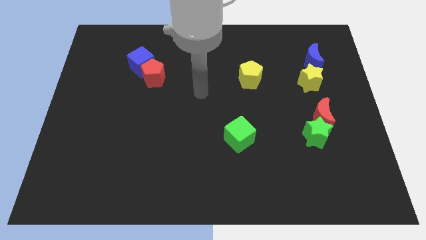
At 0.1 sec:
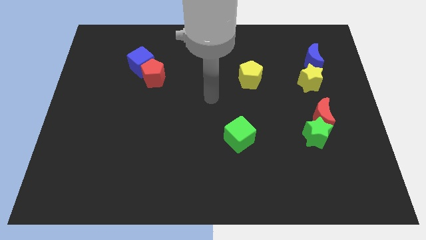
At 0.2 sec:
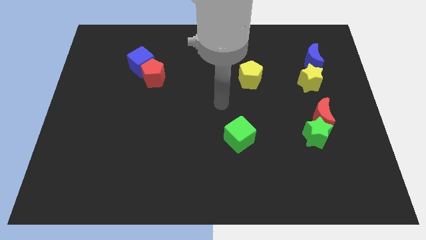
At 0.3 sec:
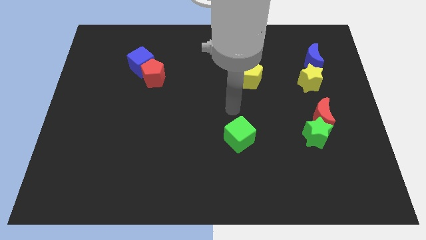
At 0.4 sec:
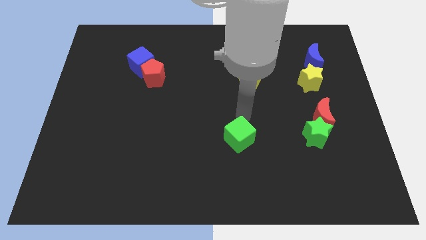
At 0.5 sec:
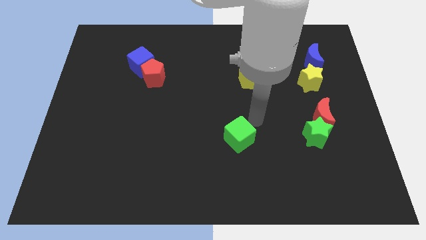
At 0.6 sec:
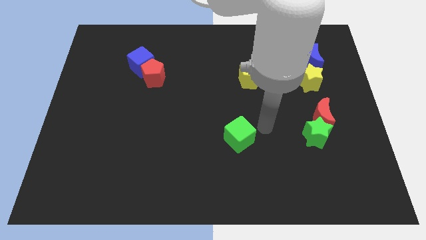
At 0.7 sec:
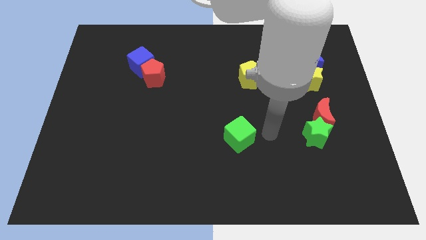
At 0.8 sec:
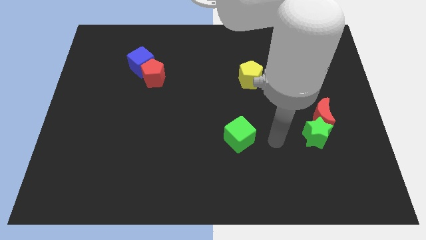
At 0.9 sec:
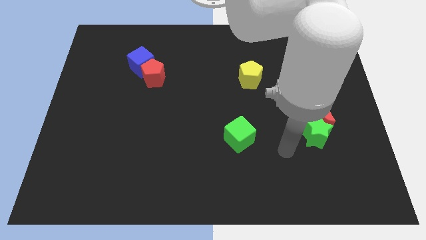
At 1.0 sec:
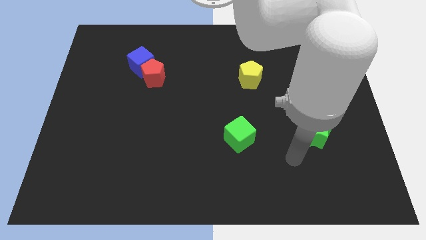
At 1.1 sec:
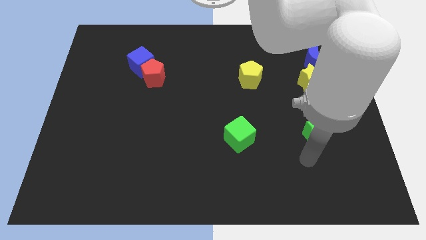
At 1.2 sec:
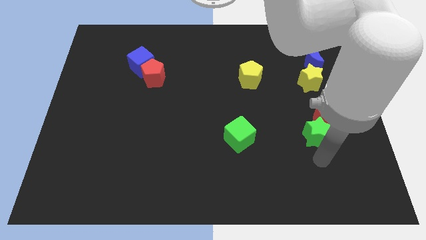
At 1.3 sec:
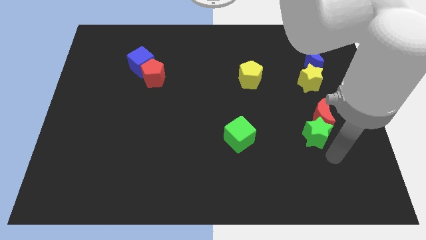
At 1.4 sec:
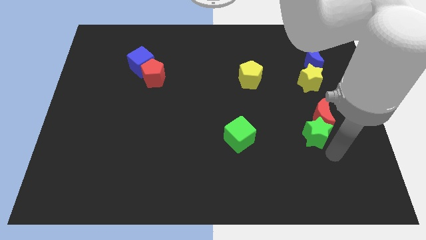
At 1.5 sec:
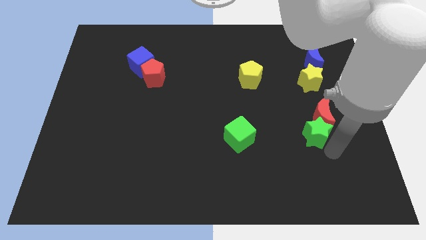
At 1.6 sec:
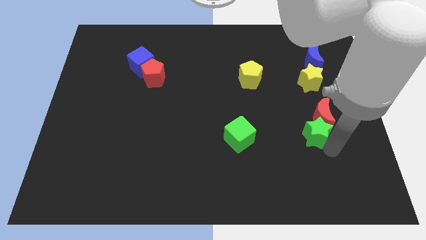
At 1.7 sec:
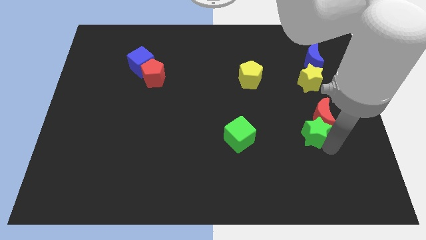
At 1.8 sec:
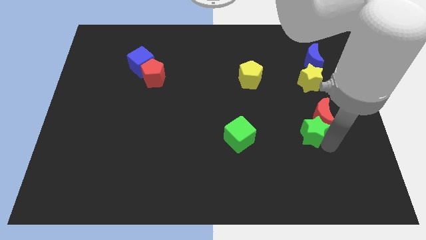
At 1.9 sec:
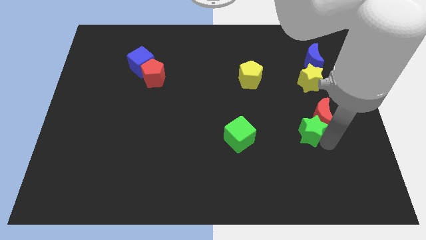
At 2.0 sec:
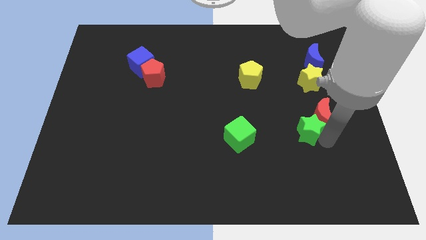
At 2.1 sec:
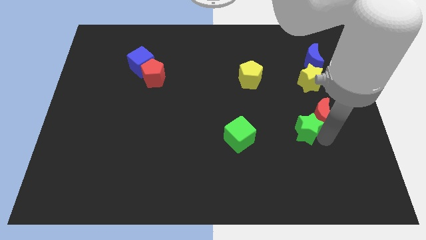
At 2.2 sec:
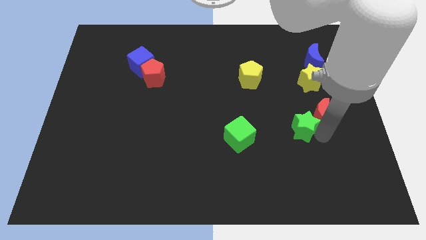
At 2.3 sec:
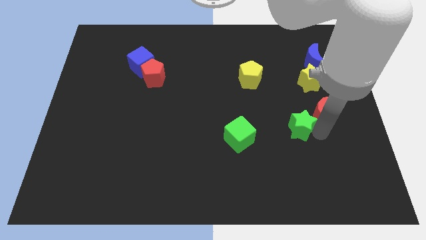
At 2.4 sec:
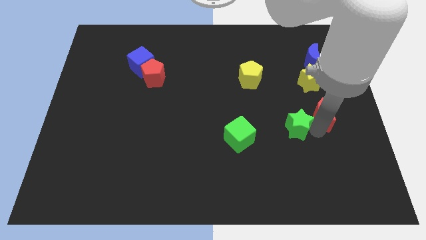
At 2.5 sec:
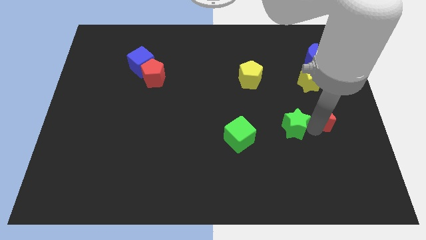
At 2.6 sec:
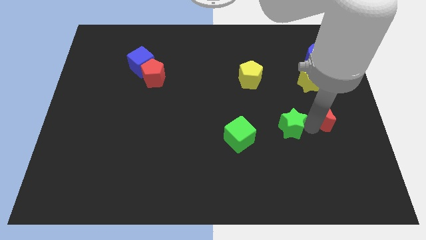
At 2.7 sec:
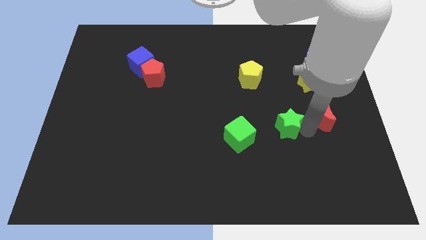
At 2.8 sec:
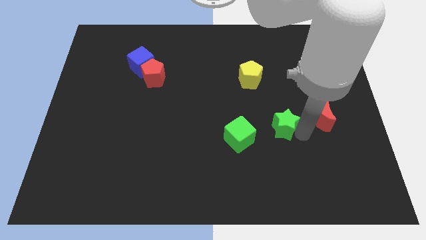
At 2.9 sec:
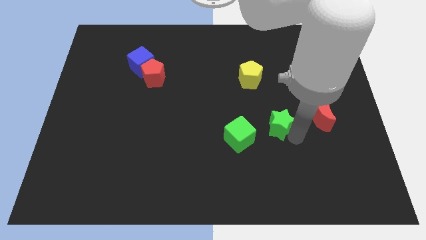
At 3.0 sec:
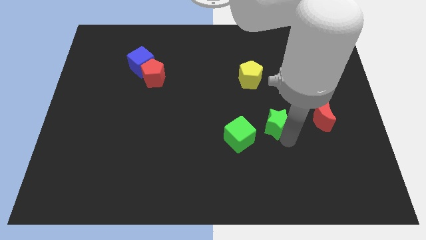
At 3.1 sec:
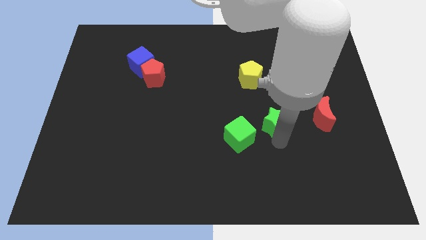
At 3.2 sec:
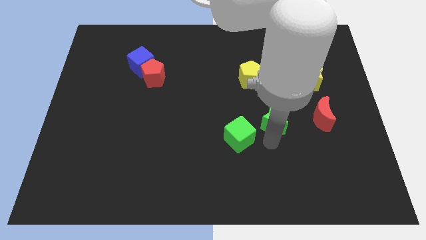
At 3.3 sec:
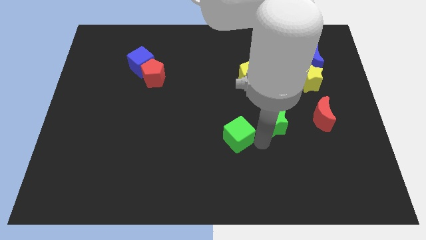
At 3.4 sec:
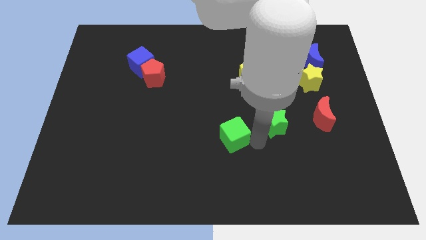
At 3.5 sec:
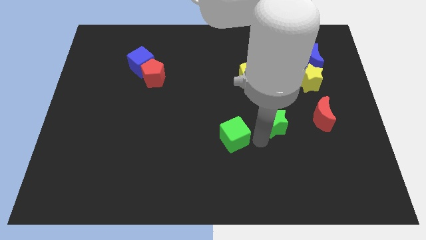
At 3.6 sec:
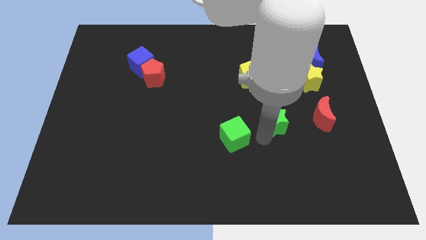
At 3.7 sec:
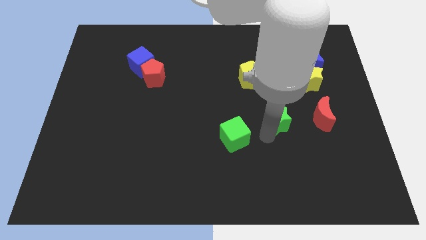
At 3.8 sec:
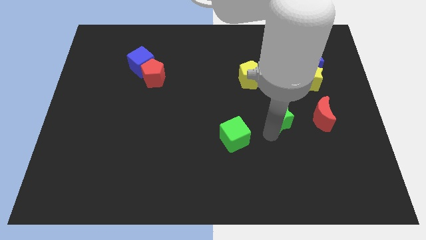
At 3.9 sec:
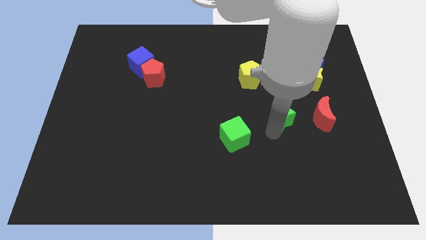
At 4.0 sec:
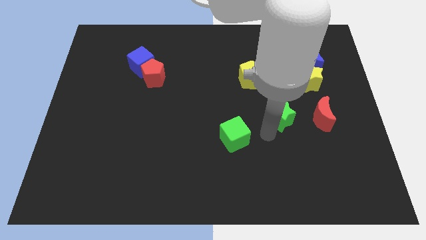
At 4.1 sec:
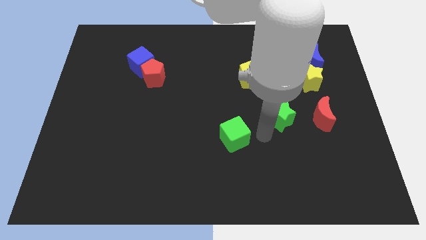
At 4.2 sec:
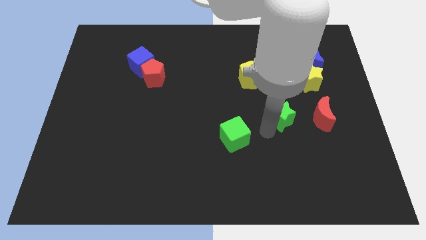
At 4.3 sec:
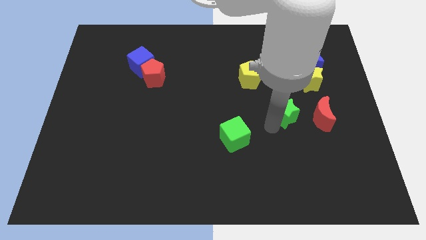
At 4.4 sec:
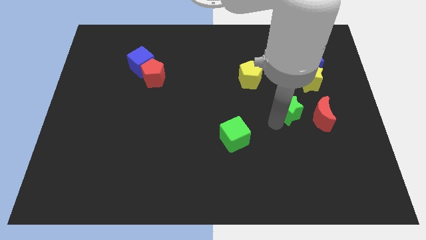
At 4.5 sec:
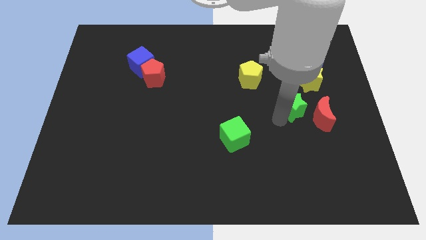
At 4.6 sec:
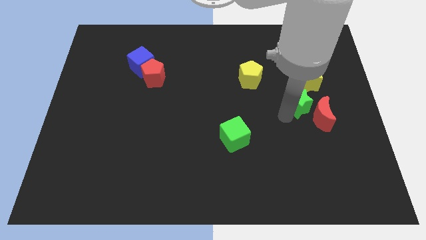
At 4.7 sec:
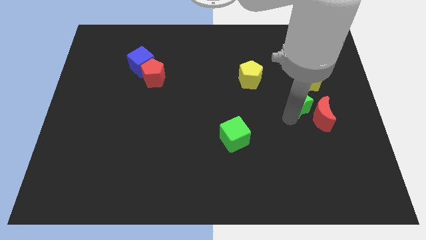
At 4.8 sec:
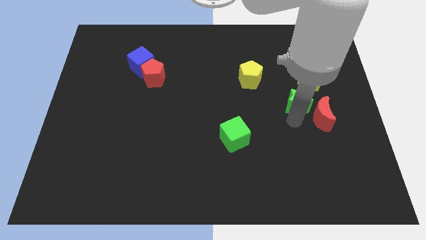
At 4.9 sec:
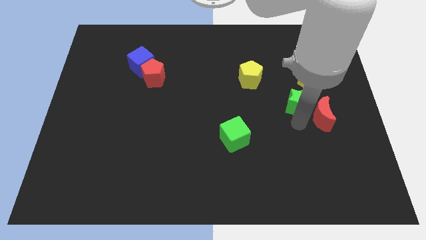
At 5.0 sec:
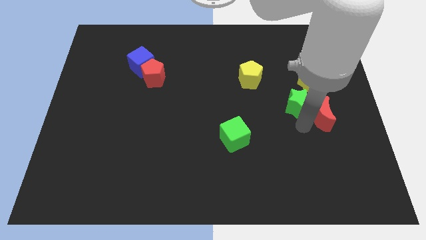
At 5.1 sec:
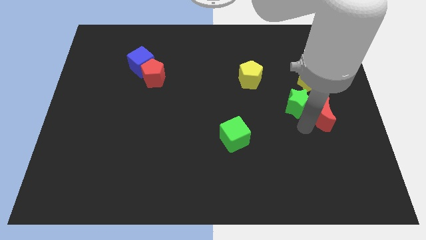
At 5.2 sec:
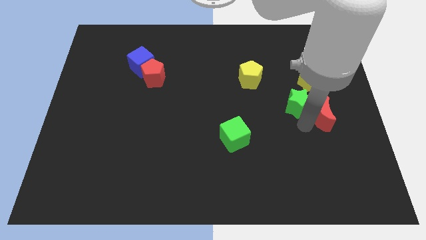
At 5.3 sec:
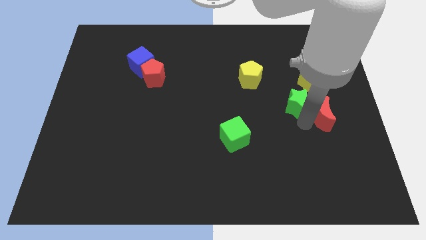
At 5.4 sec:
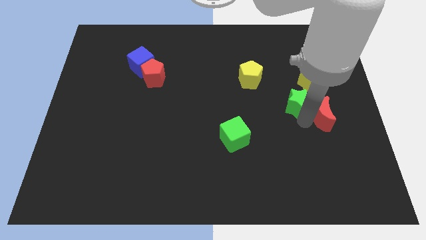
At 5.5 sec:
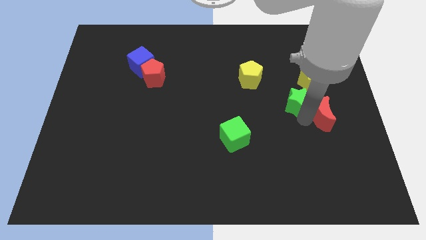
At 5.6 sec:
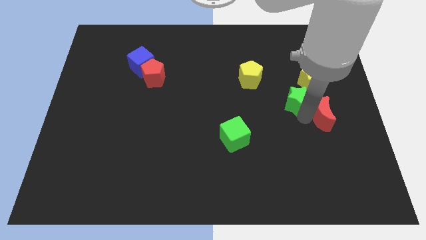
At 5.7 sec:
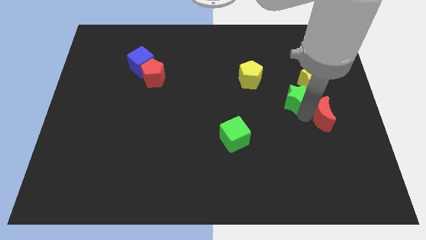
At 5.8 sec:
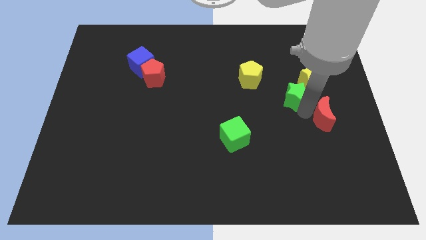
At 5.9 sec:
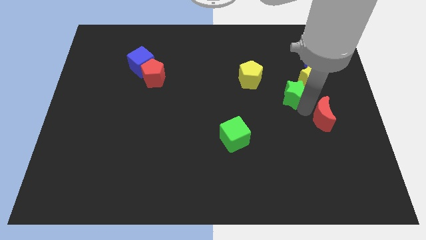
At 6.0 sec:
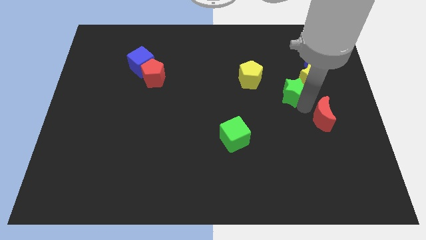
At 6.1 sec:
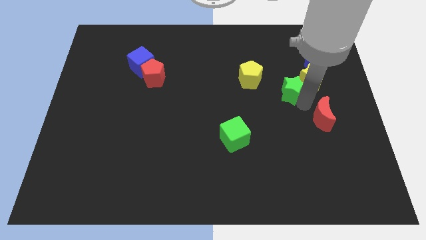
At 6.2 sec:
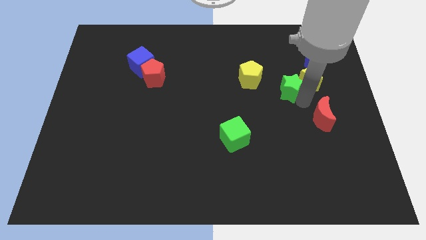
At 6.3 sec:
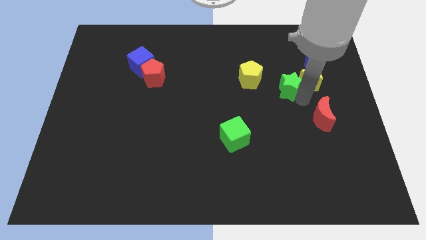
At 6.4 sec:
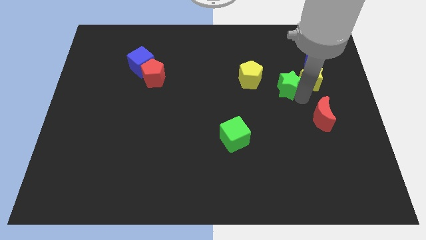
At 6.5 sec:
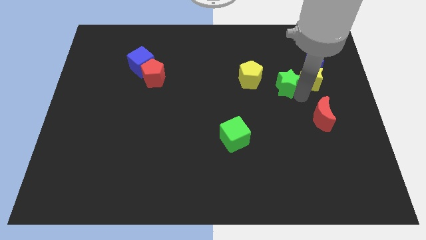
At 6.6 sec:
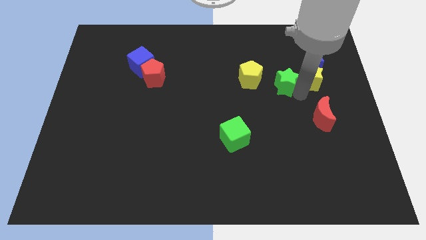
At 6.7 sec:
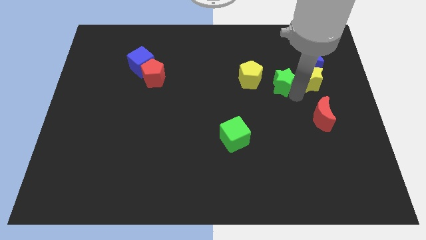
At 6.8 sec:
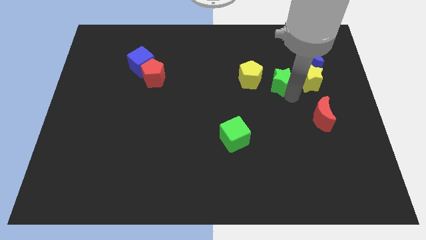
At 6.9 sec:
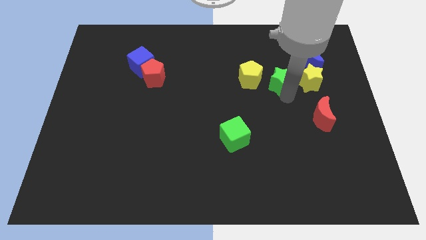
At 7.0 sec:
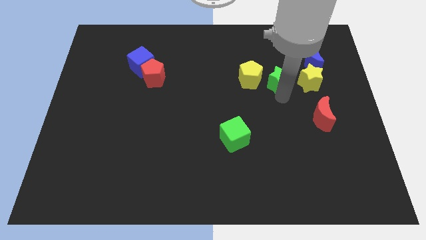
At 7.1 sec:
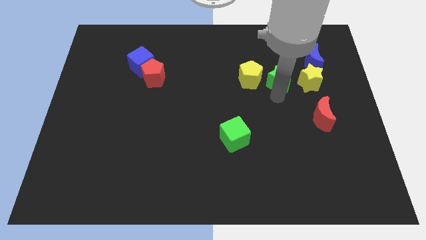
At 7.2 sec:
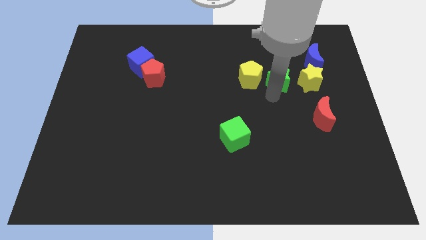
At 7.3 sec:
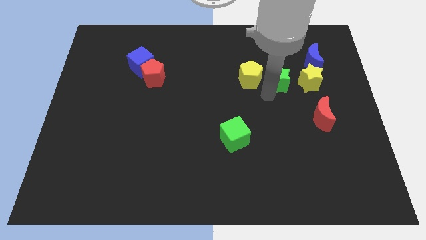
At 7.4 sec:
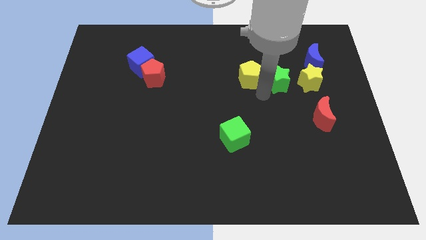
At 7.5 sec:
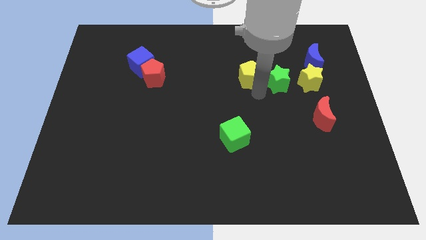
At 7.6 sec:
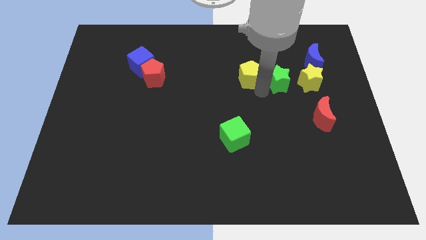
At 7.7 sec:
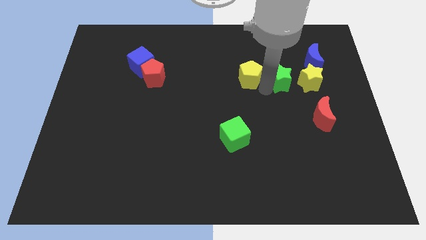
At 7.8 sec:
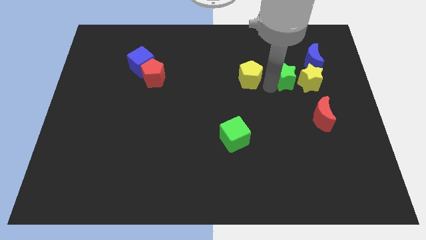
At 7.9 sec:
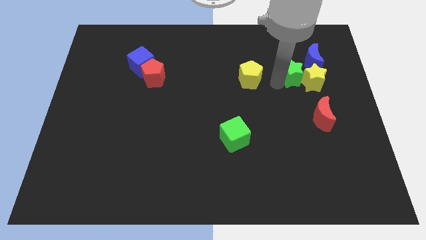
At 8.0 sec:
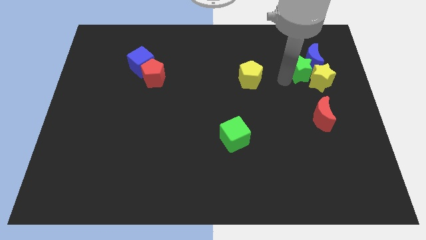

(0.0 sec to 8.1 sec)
move the green star next to the blue moon
